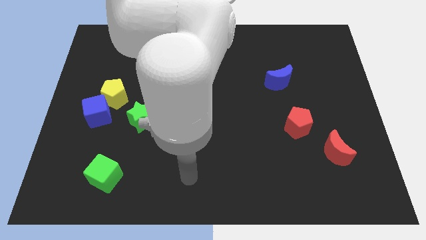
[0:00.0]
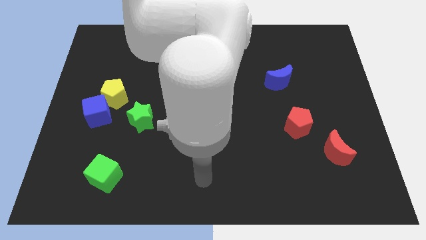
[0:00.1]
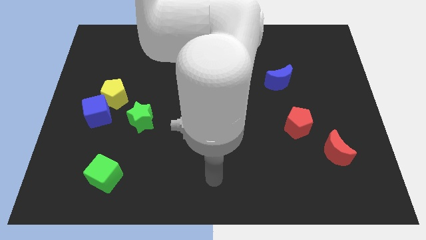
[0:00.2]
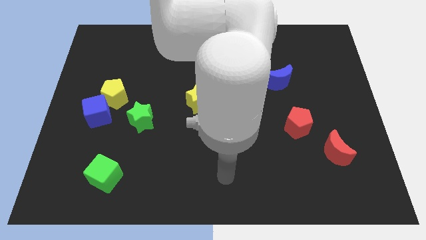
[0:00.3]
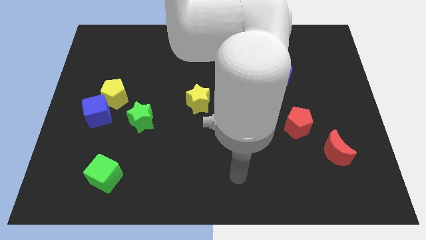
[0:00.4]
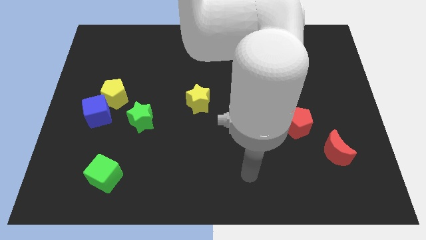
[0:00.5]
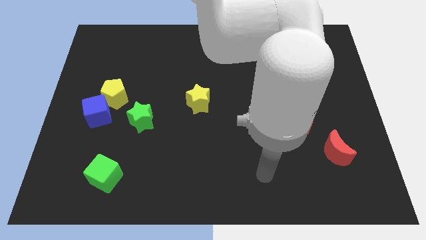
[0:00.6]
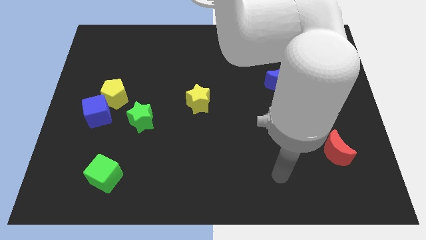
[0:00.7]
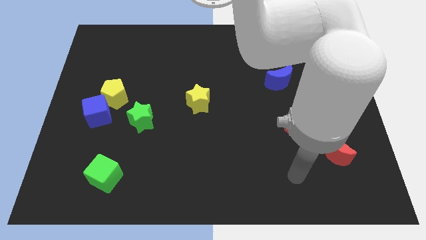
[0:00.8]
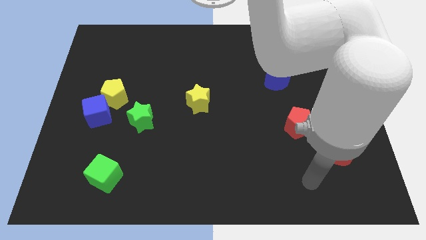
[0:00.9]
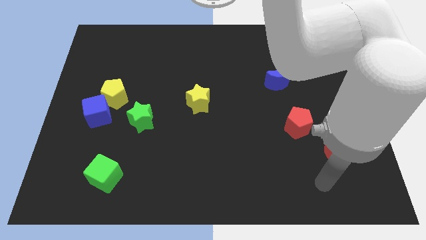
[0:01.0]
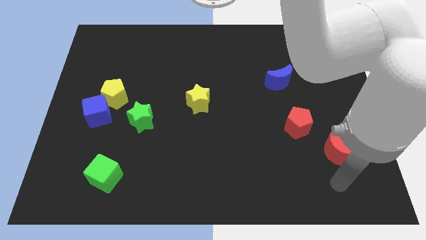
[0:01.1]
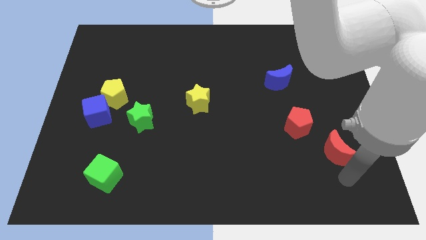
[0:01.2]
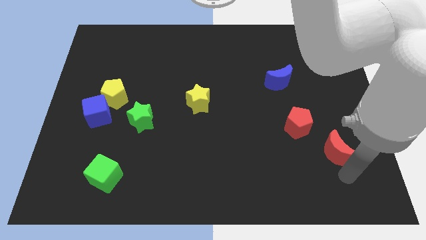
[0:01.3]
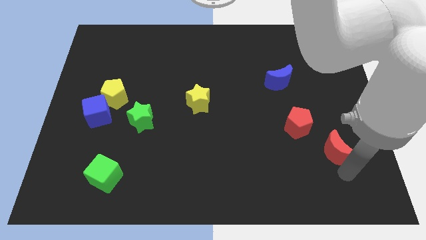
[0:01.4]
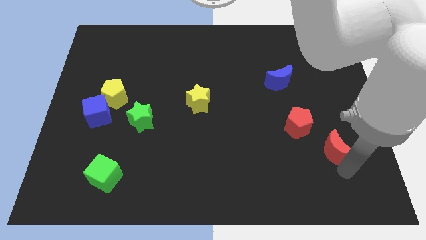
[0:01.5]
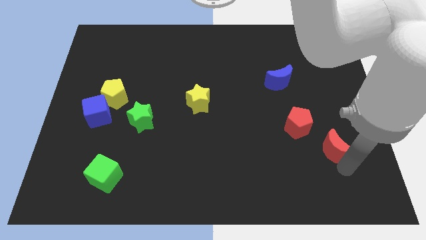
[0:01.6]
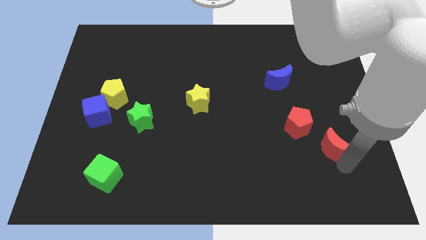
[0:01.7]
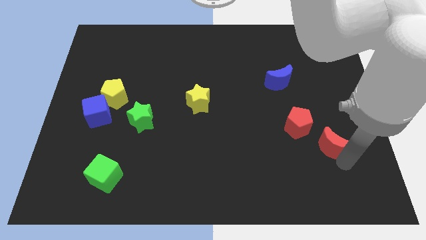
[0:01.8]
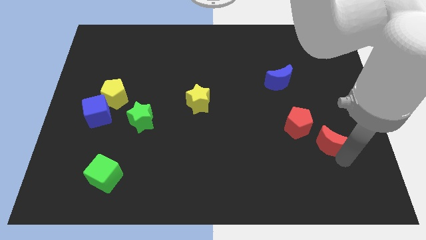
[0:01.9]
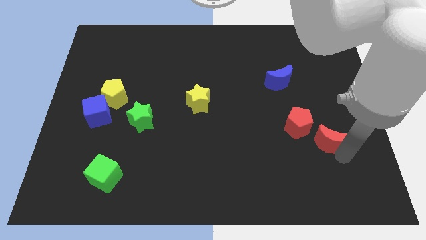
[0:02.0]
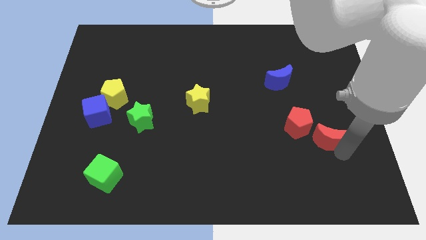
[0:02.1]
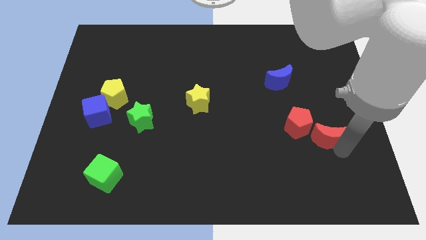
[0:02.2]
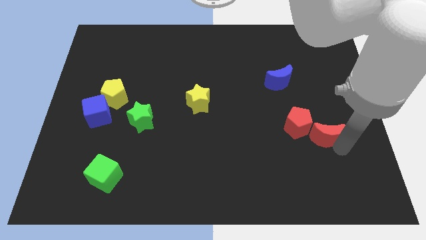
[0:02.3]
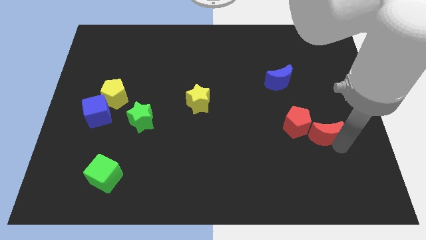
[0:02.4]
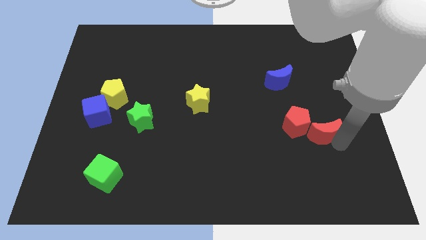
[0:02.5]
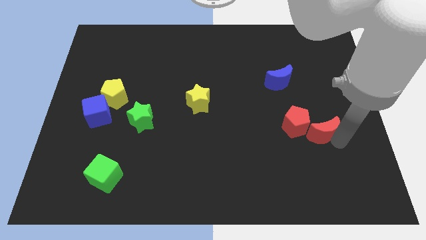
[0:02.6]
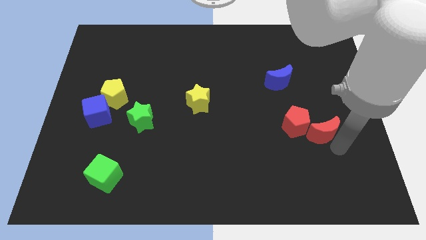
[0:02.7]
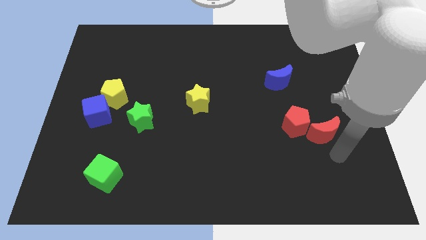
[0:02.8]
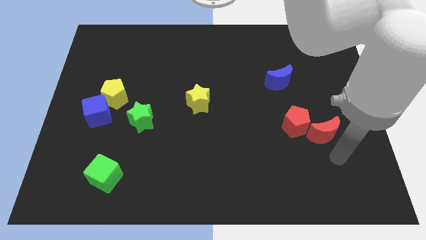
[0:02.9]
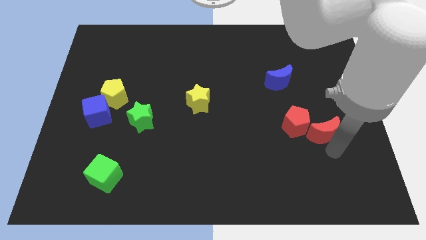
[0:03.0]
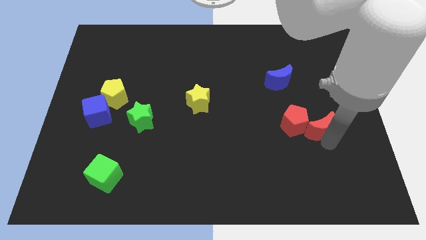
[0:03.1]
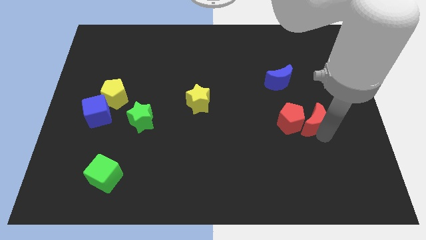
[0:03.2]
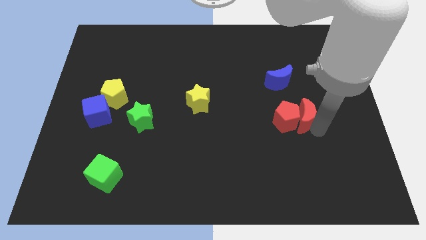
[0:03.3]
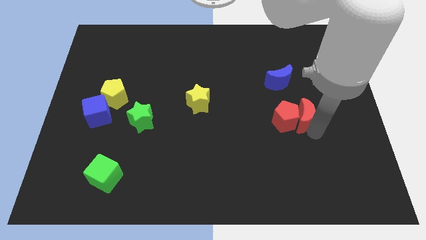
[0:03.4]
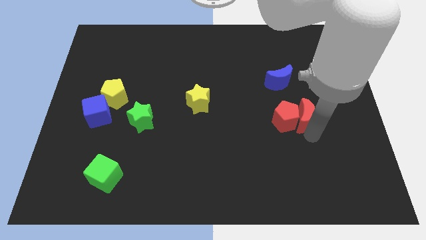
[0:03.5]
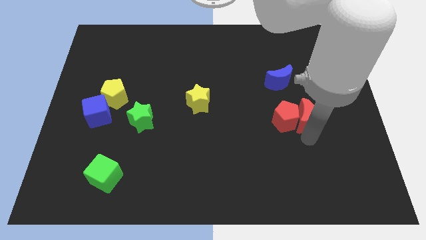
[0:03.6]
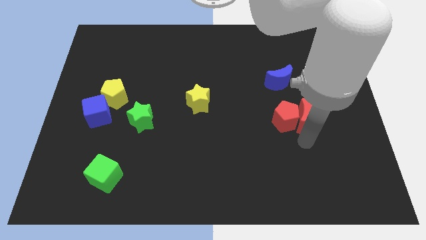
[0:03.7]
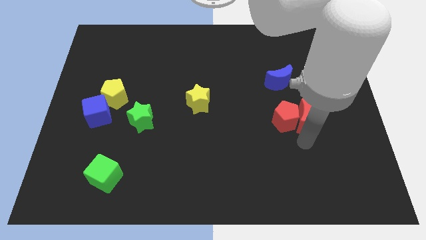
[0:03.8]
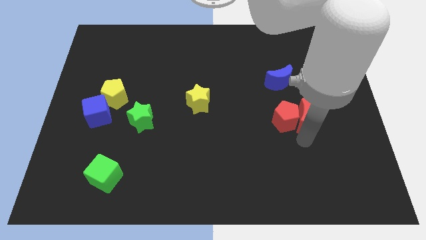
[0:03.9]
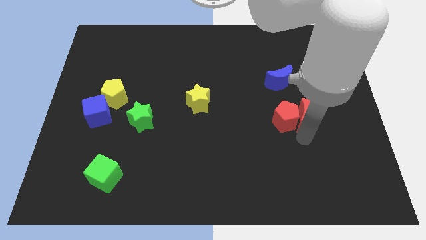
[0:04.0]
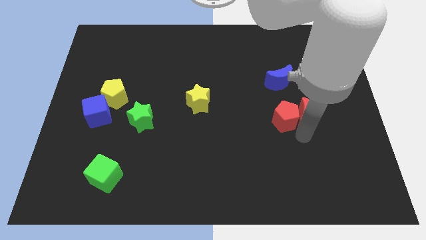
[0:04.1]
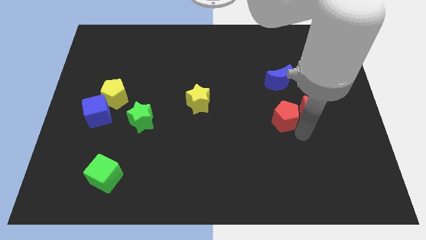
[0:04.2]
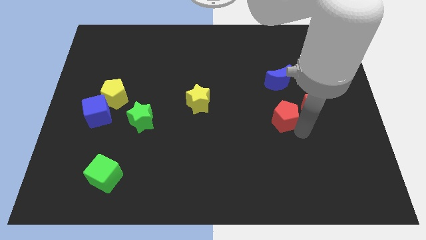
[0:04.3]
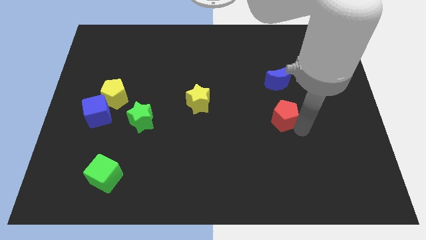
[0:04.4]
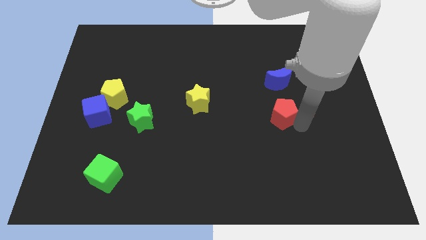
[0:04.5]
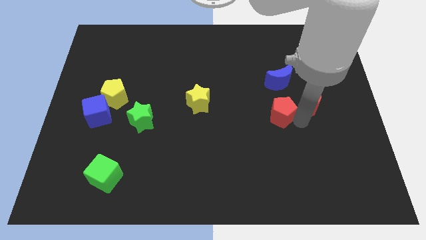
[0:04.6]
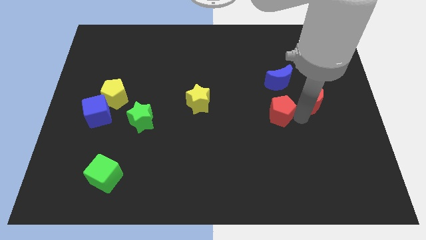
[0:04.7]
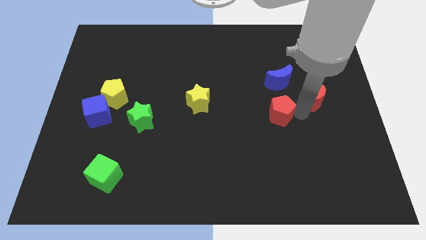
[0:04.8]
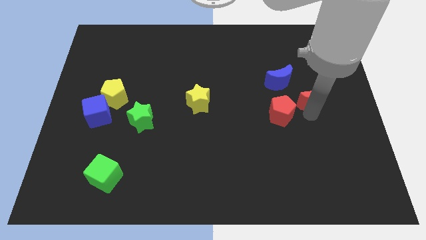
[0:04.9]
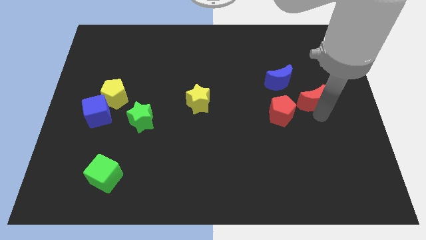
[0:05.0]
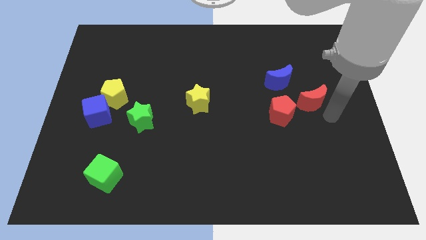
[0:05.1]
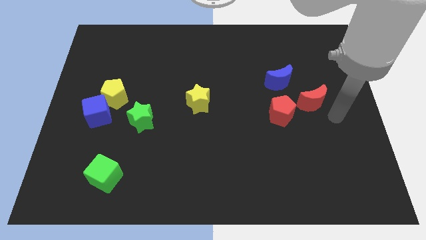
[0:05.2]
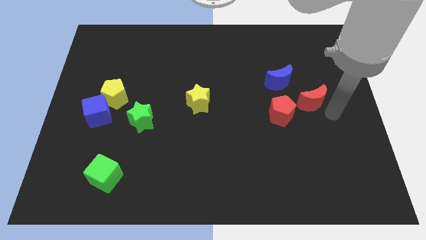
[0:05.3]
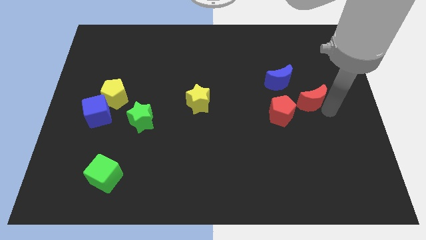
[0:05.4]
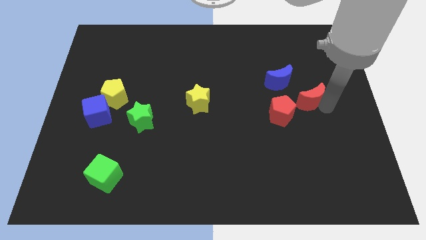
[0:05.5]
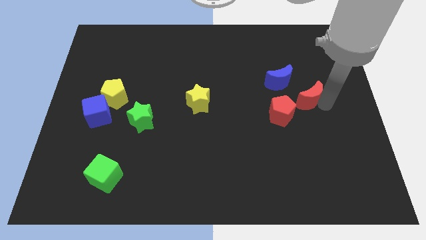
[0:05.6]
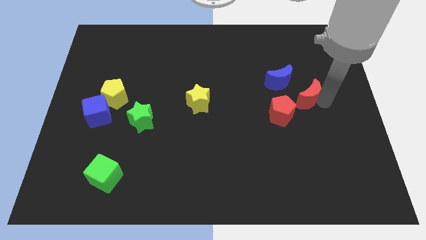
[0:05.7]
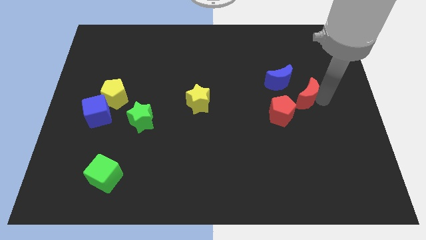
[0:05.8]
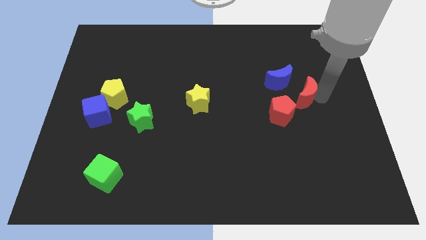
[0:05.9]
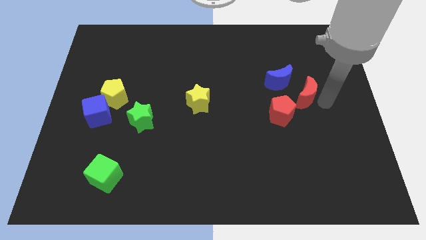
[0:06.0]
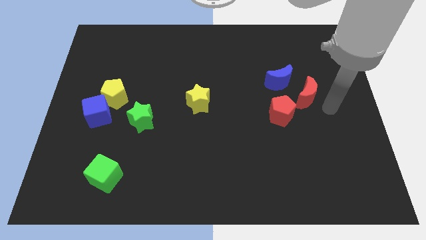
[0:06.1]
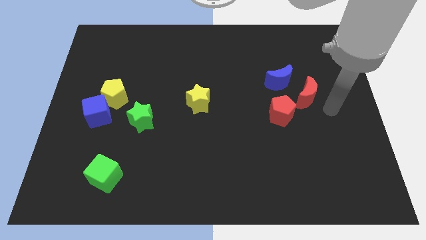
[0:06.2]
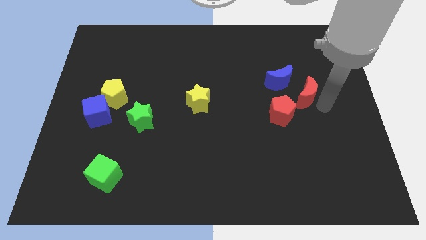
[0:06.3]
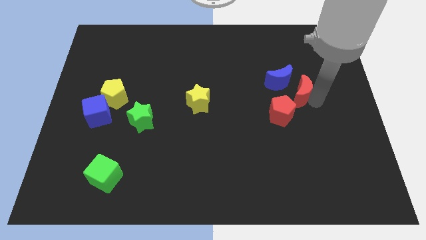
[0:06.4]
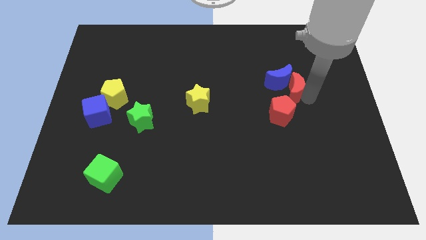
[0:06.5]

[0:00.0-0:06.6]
slide the red moon to the top of the red pentagon

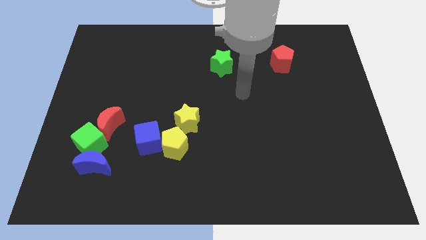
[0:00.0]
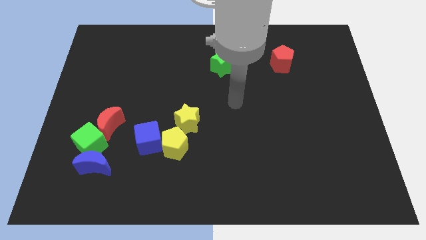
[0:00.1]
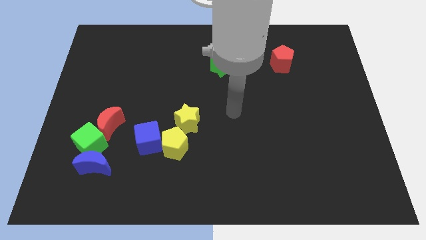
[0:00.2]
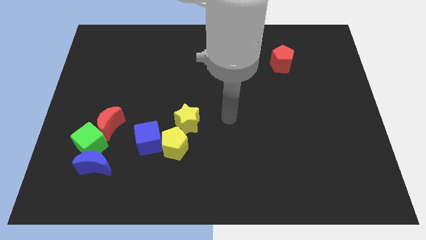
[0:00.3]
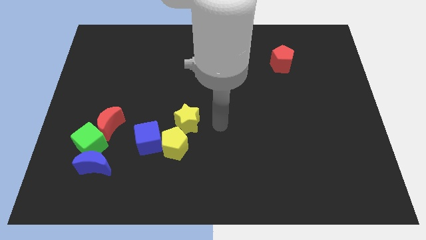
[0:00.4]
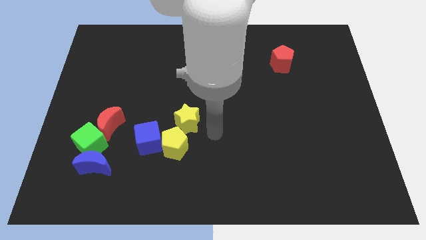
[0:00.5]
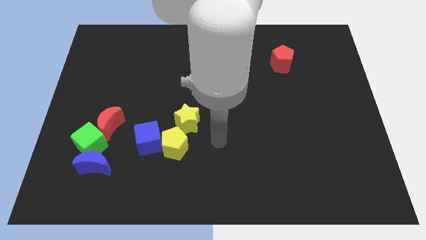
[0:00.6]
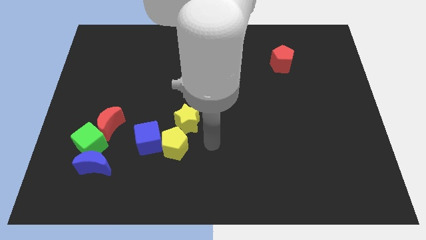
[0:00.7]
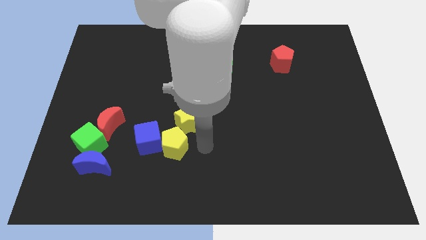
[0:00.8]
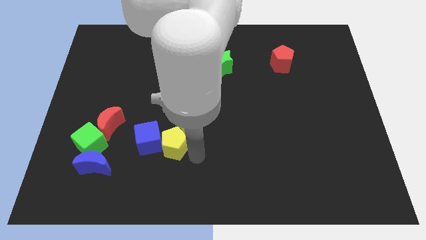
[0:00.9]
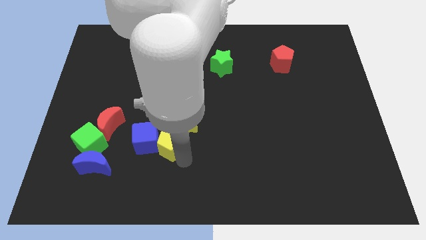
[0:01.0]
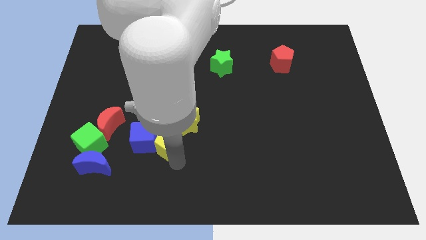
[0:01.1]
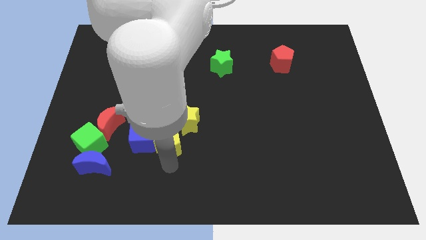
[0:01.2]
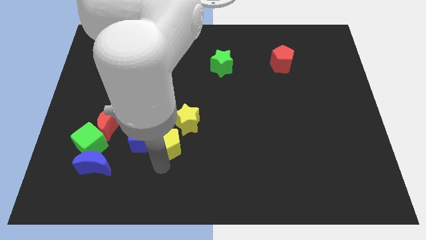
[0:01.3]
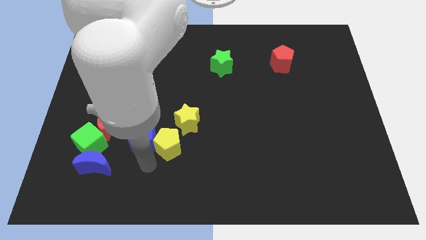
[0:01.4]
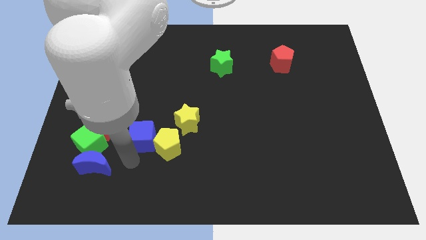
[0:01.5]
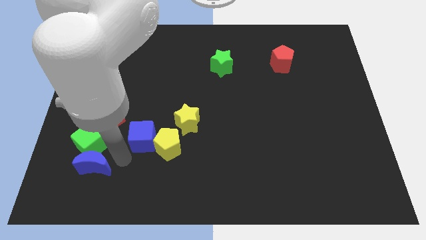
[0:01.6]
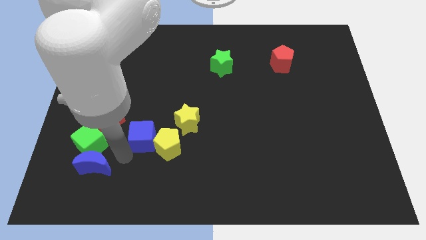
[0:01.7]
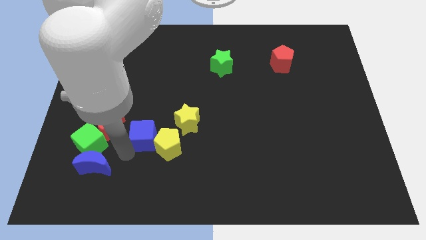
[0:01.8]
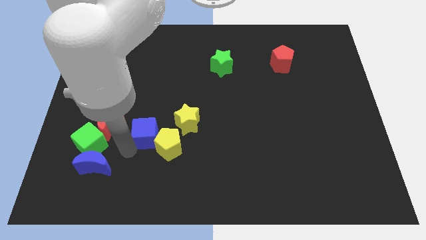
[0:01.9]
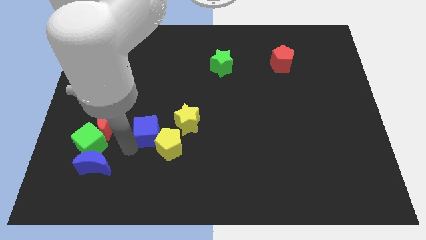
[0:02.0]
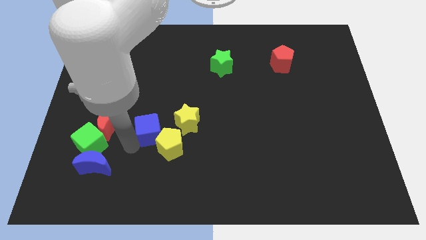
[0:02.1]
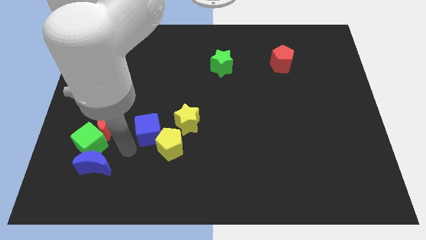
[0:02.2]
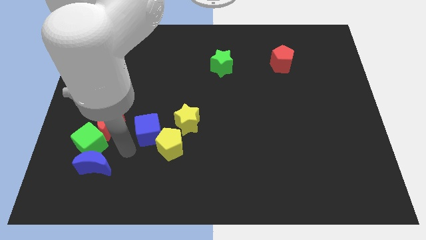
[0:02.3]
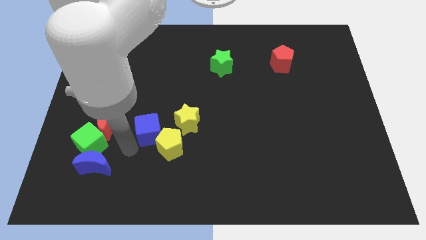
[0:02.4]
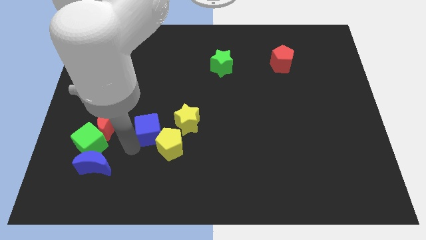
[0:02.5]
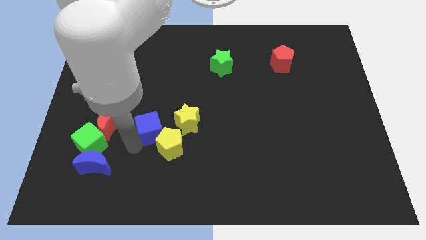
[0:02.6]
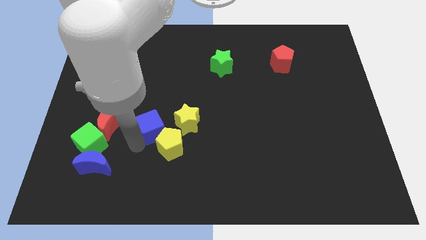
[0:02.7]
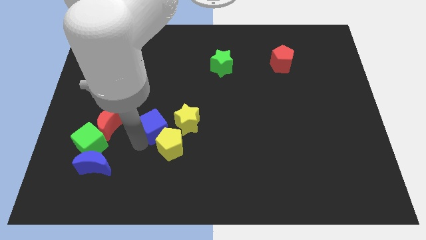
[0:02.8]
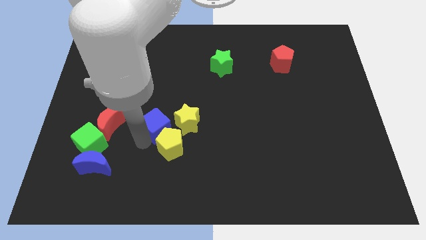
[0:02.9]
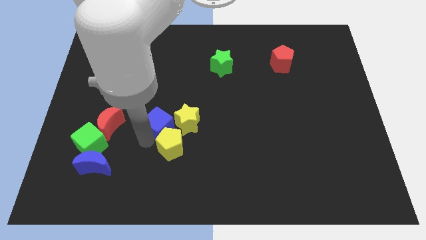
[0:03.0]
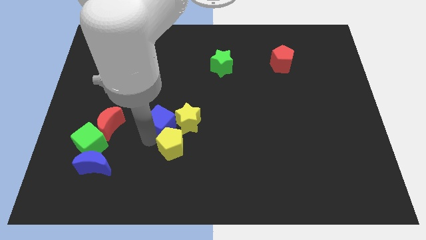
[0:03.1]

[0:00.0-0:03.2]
push the blue cube to the top left of the yellow star
